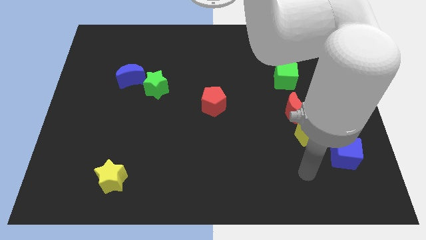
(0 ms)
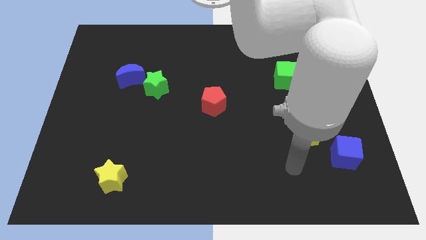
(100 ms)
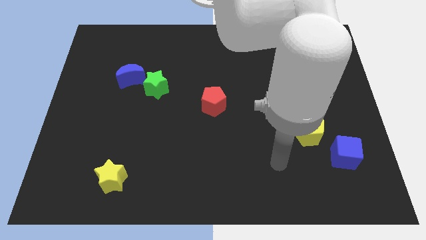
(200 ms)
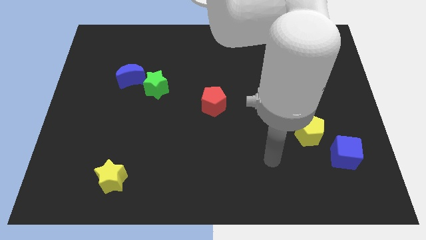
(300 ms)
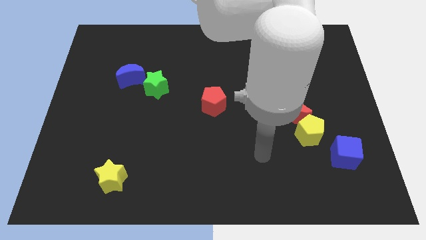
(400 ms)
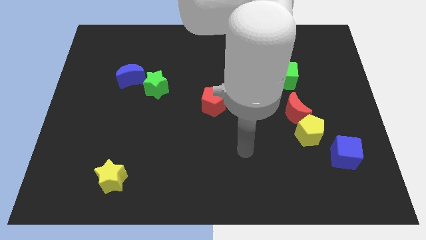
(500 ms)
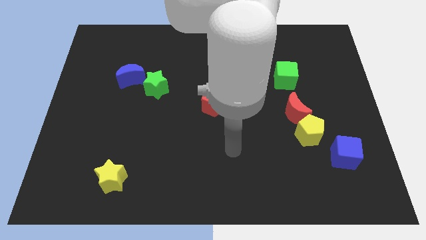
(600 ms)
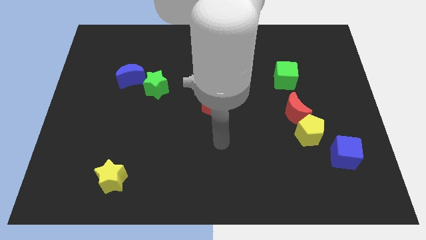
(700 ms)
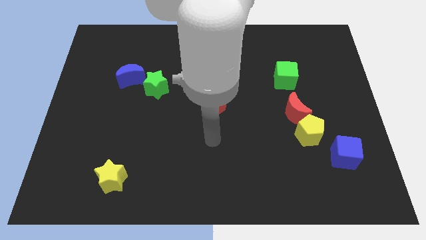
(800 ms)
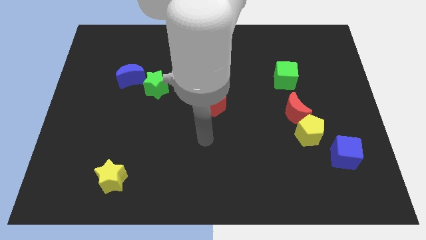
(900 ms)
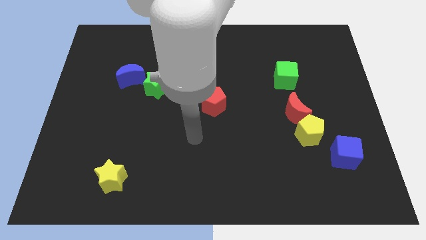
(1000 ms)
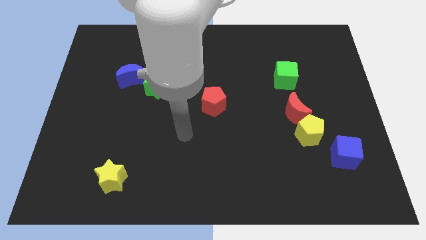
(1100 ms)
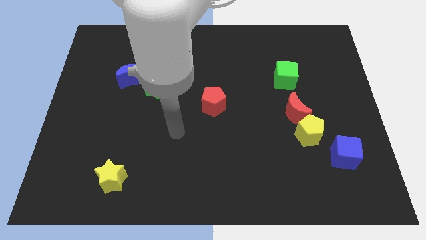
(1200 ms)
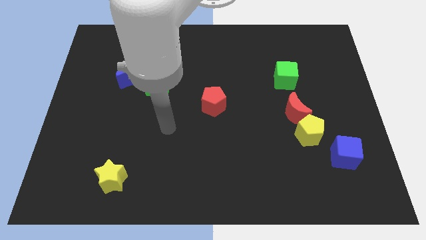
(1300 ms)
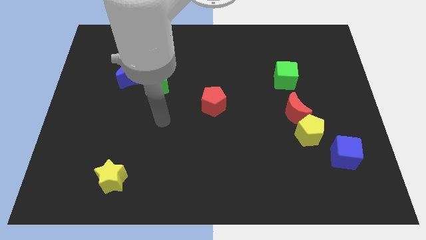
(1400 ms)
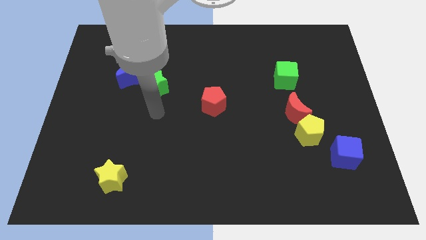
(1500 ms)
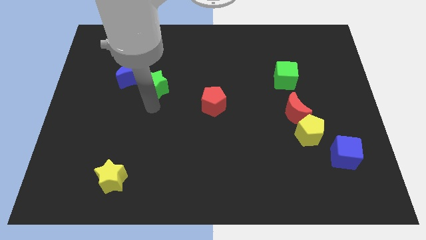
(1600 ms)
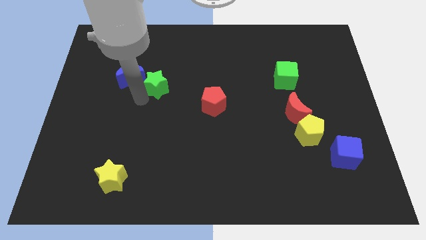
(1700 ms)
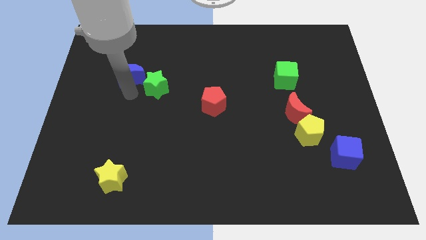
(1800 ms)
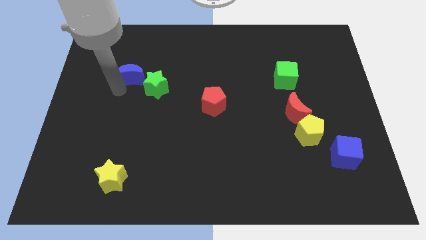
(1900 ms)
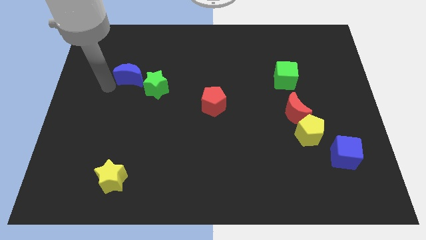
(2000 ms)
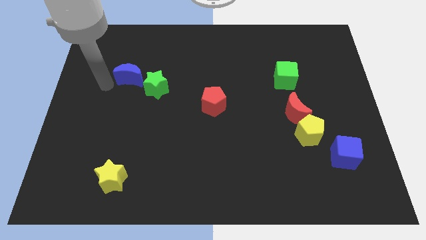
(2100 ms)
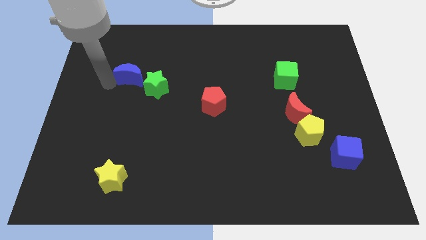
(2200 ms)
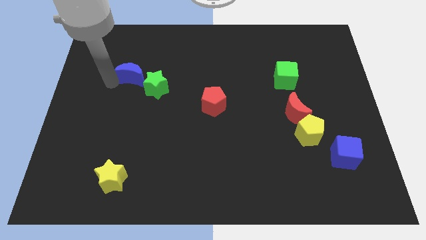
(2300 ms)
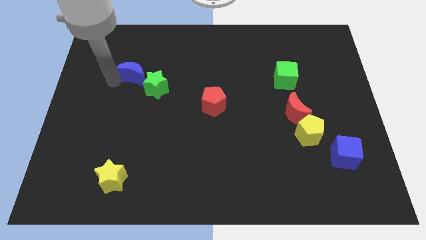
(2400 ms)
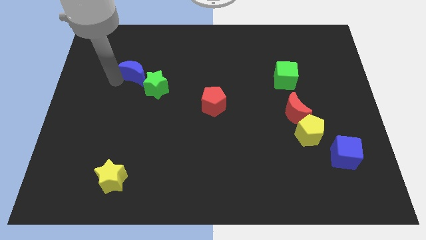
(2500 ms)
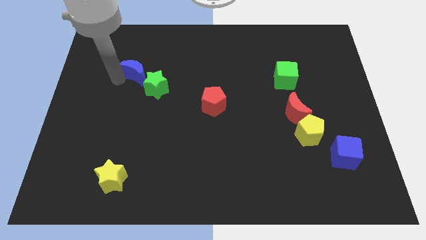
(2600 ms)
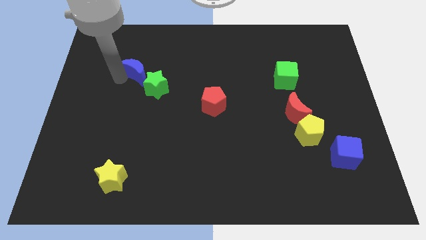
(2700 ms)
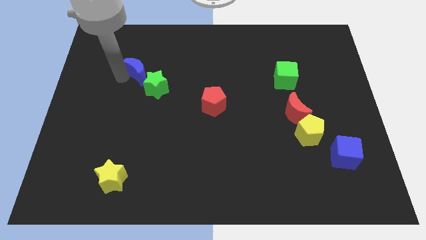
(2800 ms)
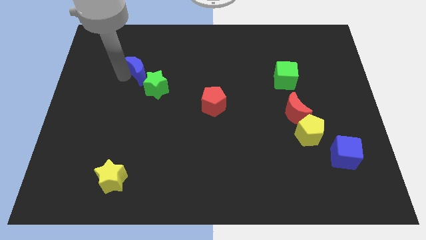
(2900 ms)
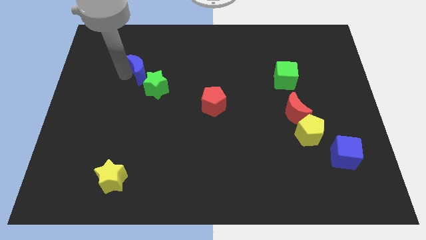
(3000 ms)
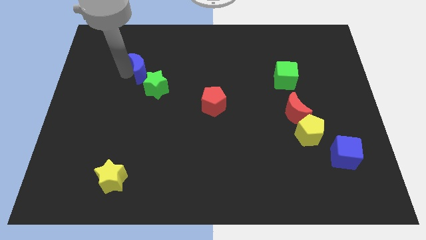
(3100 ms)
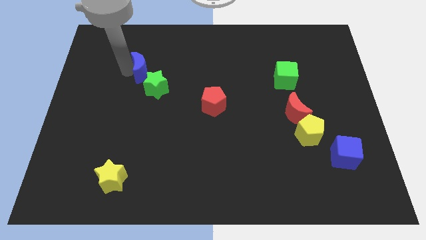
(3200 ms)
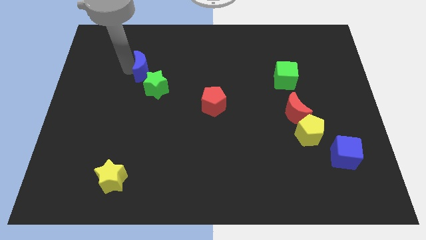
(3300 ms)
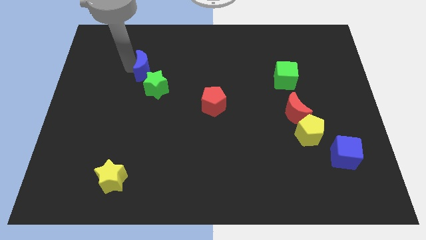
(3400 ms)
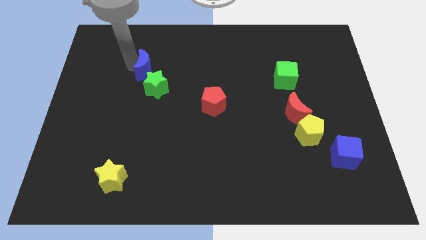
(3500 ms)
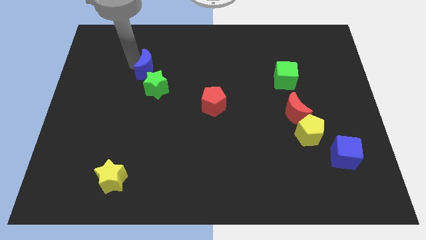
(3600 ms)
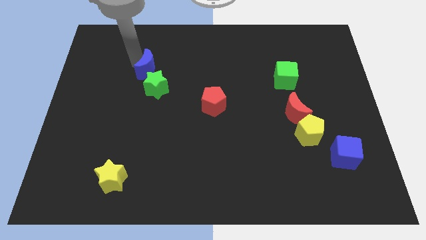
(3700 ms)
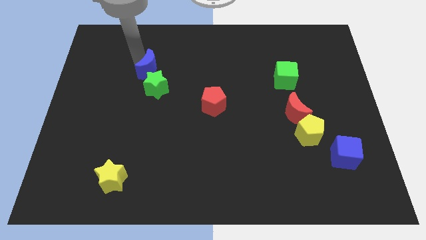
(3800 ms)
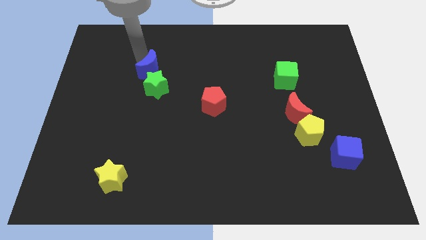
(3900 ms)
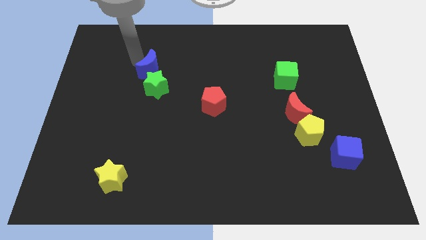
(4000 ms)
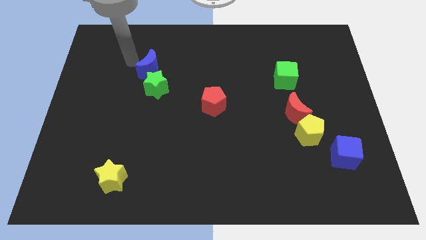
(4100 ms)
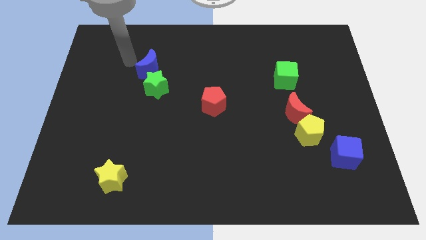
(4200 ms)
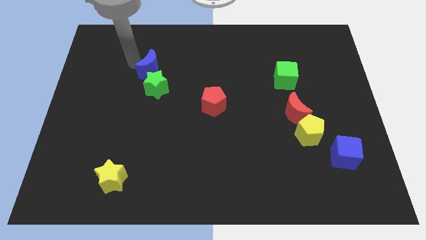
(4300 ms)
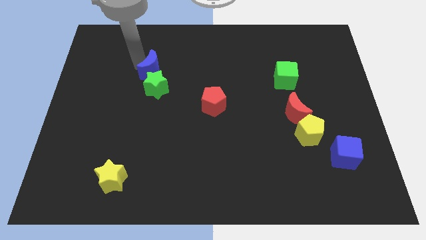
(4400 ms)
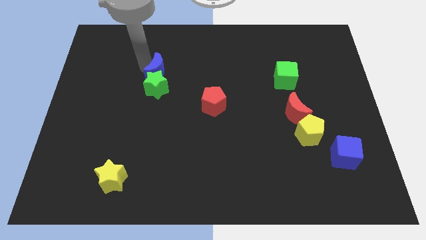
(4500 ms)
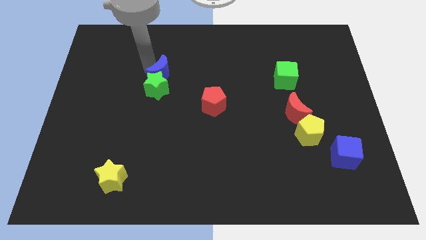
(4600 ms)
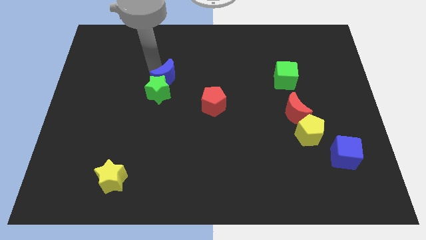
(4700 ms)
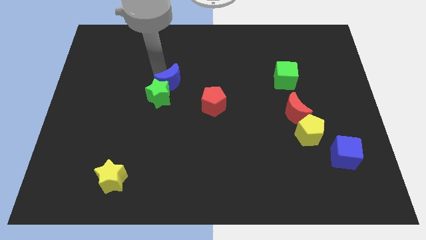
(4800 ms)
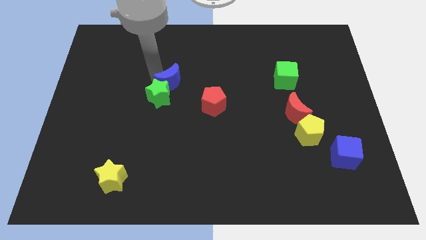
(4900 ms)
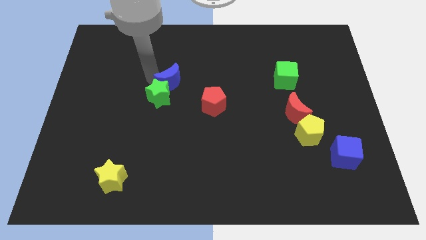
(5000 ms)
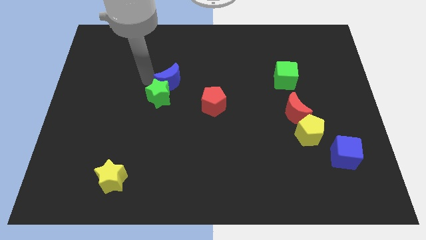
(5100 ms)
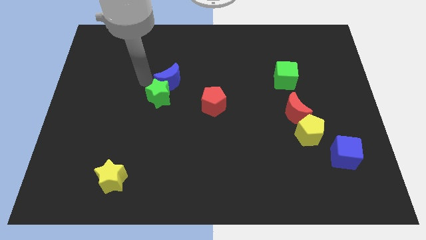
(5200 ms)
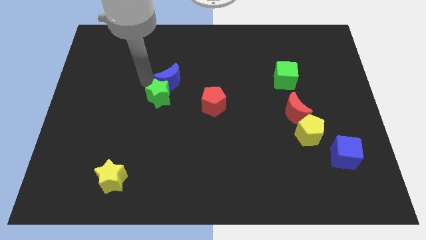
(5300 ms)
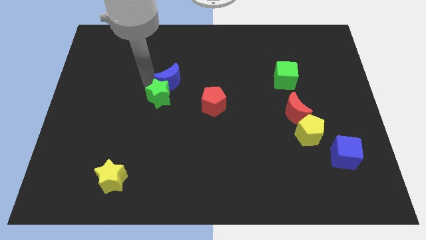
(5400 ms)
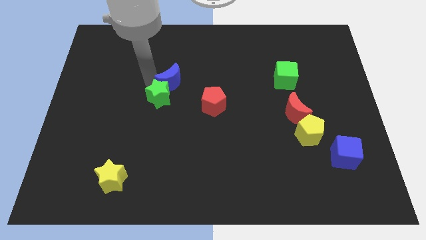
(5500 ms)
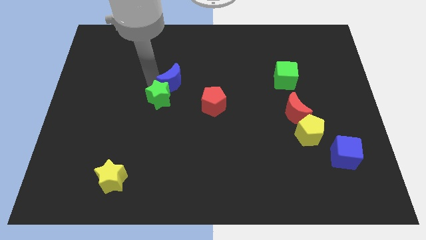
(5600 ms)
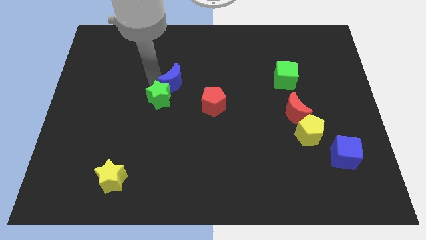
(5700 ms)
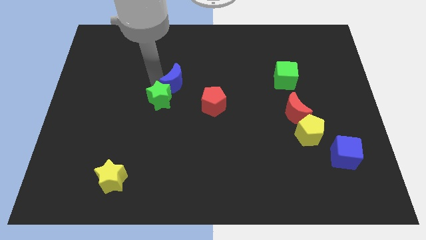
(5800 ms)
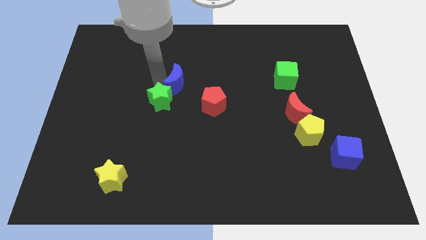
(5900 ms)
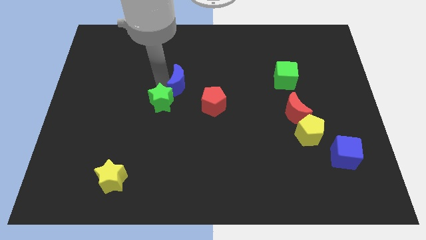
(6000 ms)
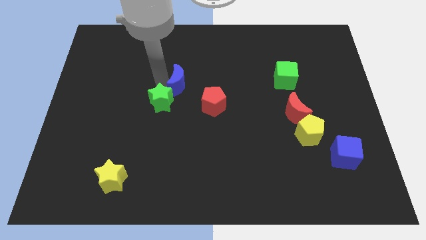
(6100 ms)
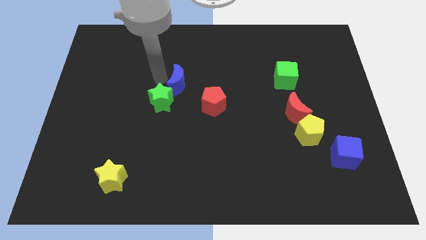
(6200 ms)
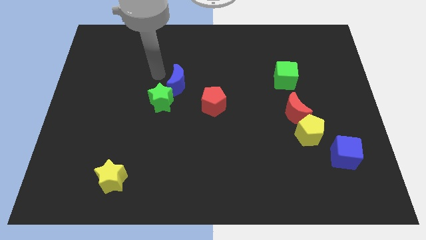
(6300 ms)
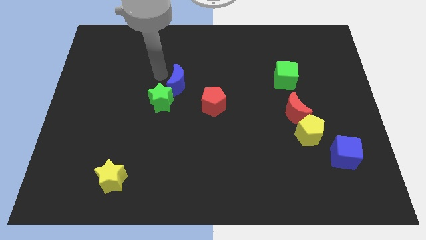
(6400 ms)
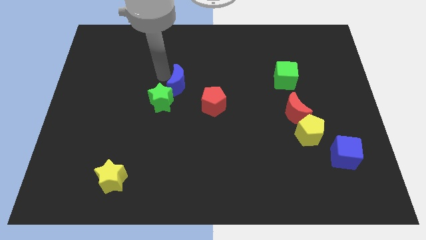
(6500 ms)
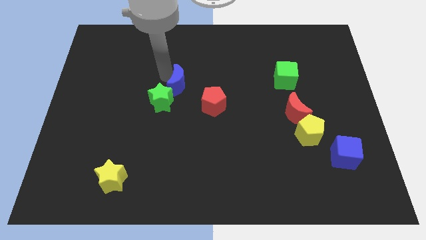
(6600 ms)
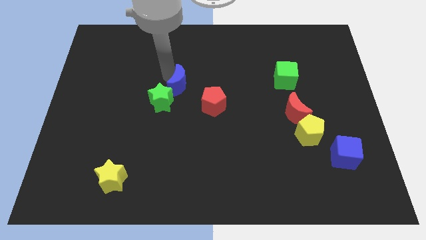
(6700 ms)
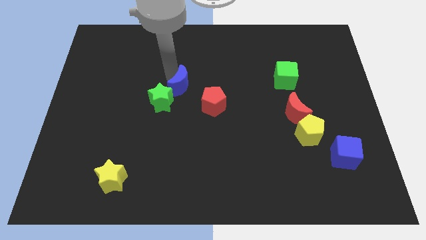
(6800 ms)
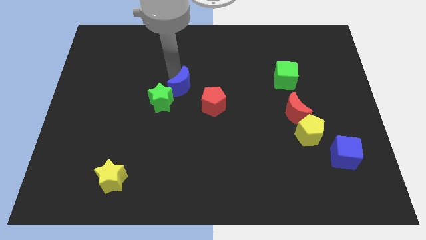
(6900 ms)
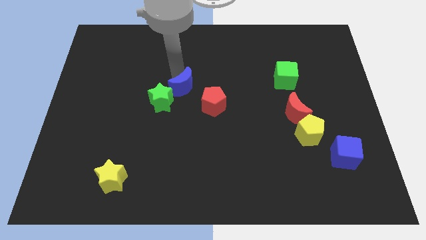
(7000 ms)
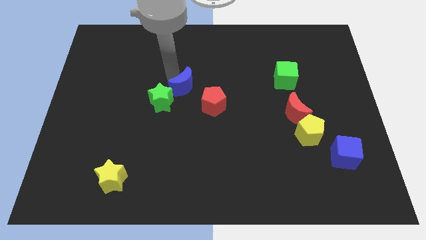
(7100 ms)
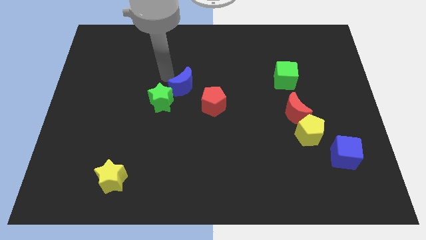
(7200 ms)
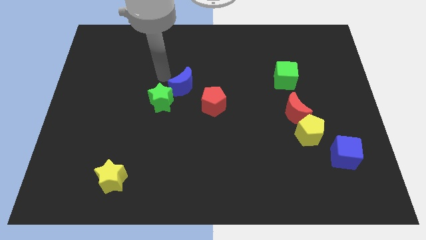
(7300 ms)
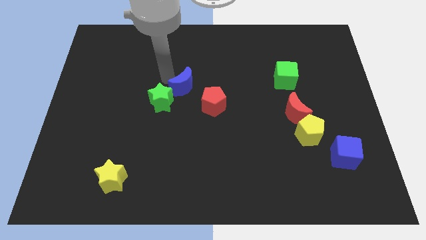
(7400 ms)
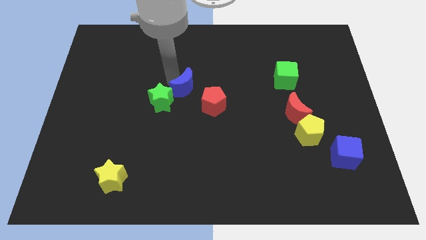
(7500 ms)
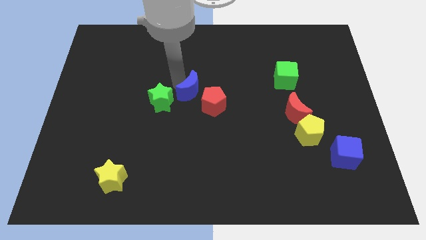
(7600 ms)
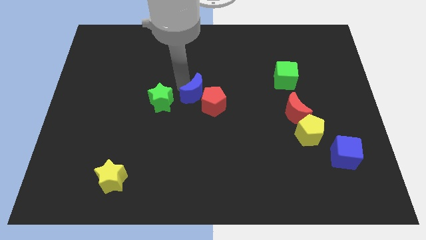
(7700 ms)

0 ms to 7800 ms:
push the blue moon towards the red pentagon
